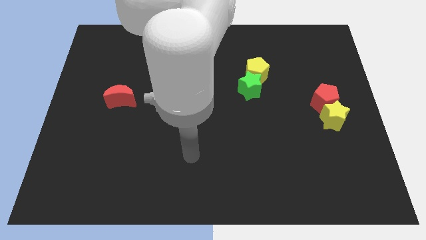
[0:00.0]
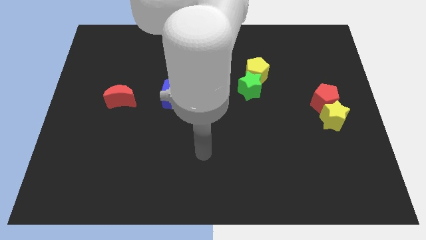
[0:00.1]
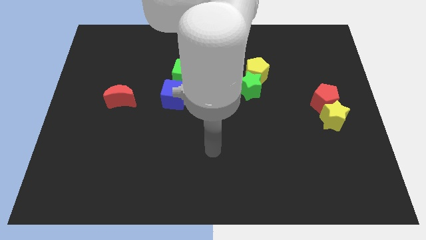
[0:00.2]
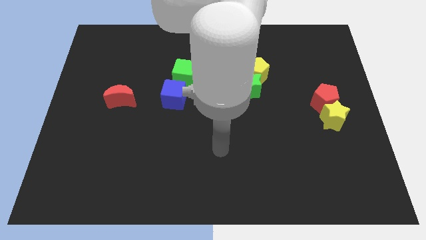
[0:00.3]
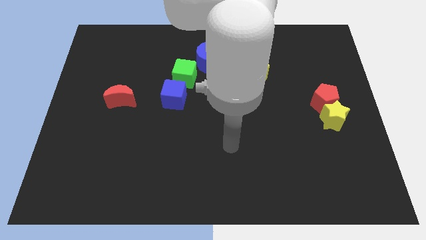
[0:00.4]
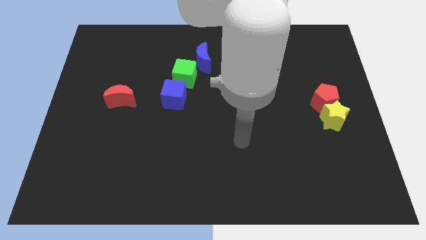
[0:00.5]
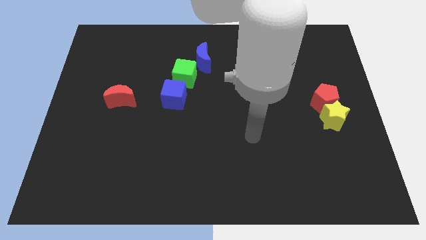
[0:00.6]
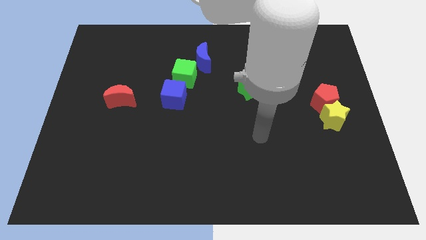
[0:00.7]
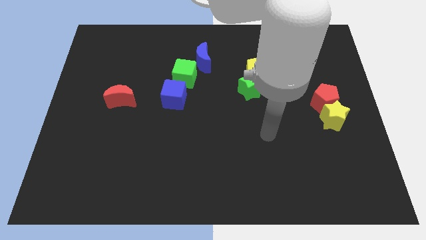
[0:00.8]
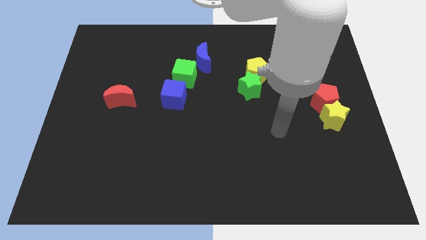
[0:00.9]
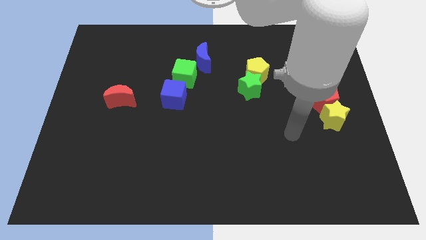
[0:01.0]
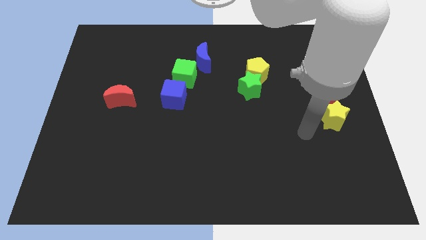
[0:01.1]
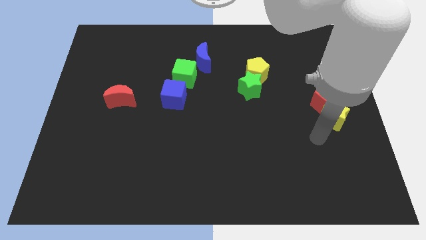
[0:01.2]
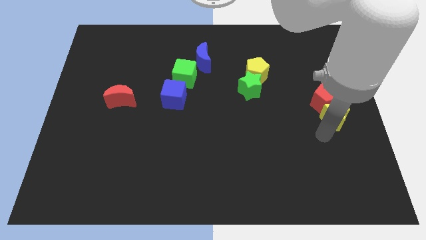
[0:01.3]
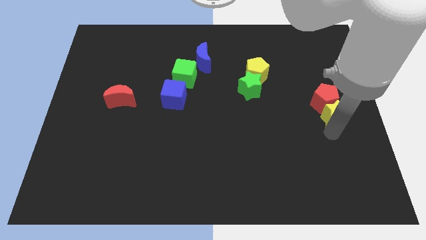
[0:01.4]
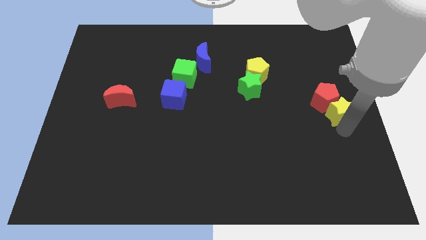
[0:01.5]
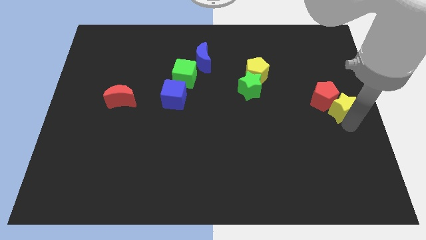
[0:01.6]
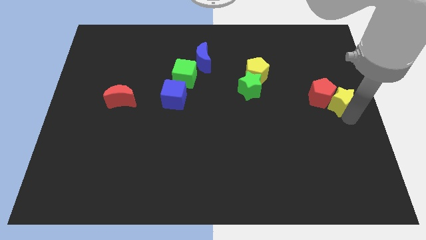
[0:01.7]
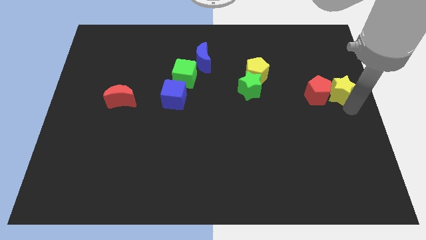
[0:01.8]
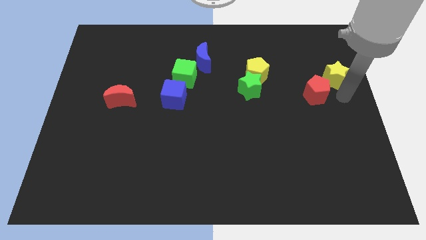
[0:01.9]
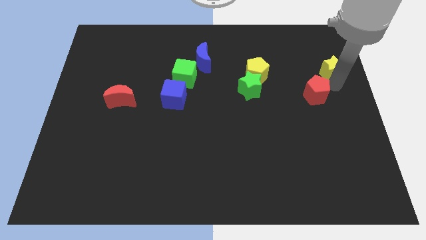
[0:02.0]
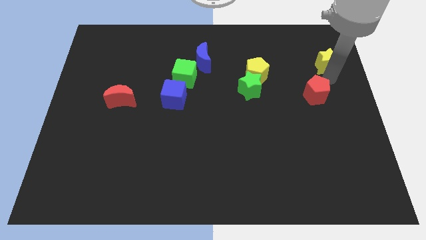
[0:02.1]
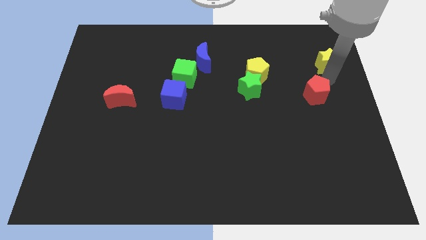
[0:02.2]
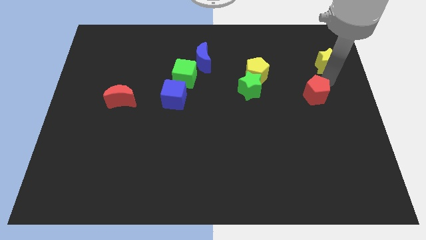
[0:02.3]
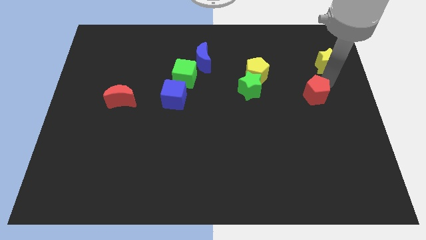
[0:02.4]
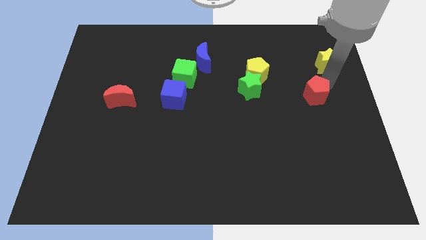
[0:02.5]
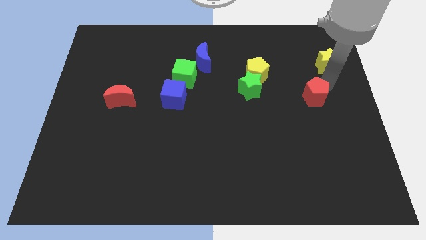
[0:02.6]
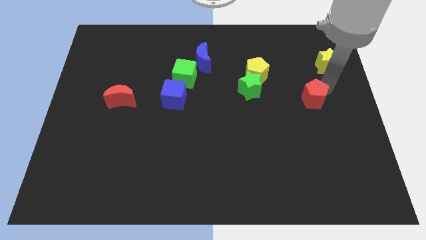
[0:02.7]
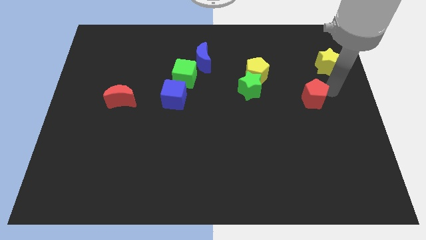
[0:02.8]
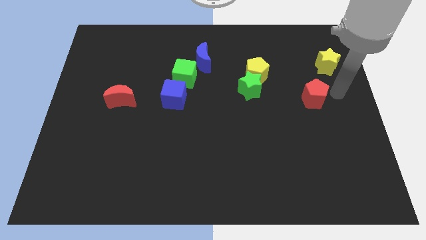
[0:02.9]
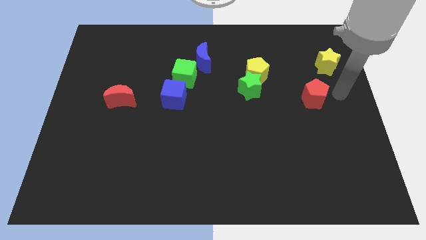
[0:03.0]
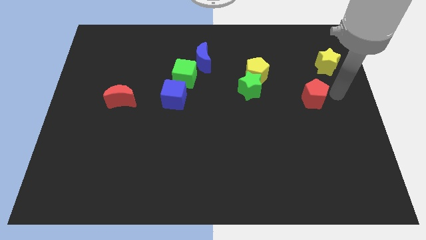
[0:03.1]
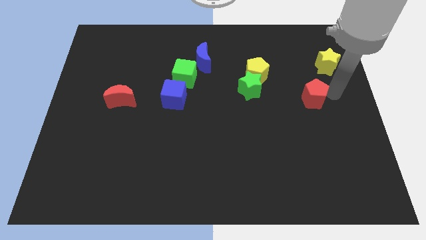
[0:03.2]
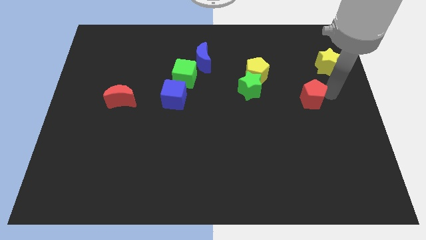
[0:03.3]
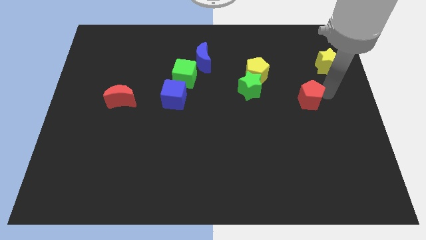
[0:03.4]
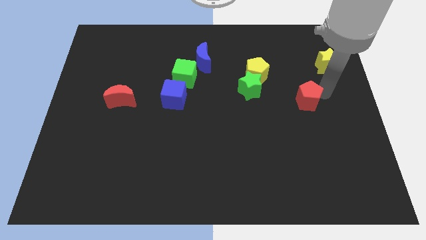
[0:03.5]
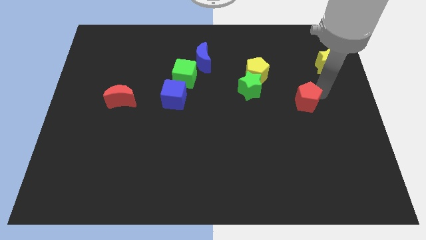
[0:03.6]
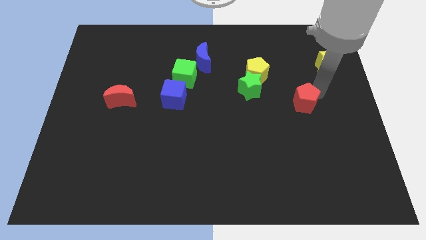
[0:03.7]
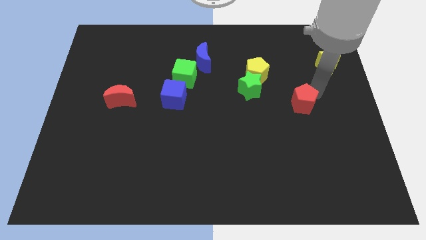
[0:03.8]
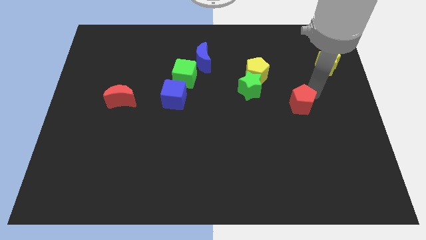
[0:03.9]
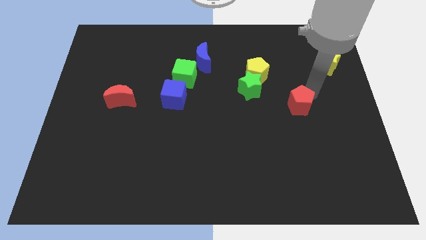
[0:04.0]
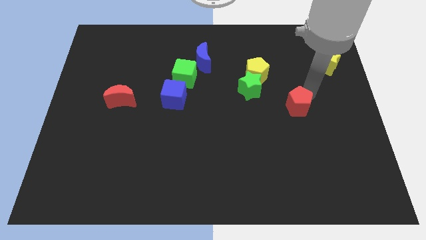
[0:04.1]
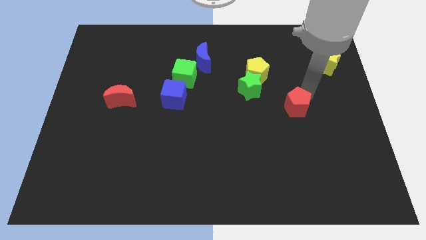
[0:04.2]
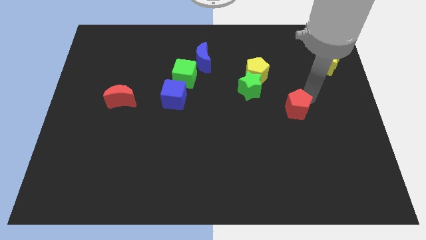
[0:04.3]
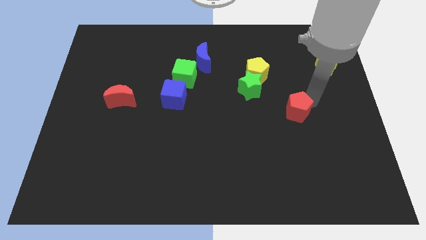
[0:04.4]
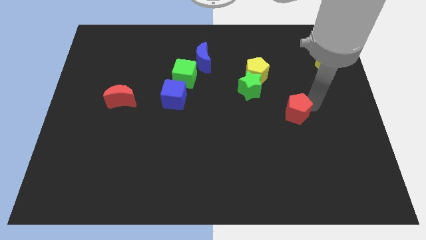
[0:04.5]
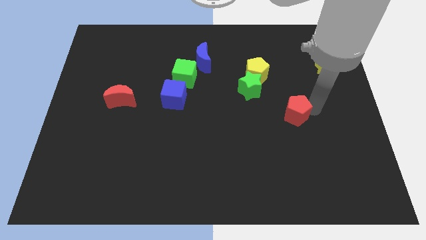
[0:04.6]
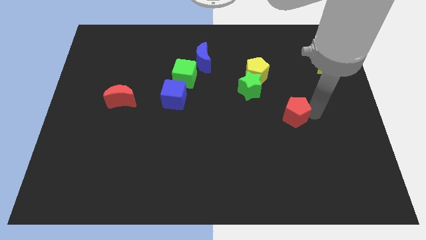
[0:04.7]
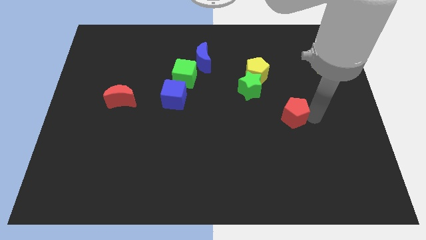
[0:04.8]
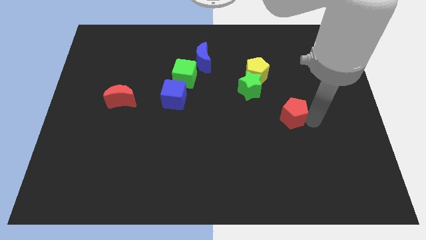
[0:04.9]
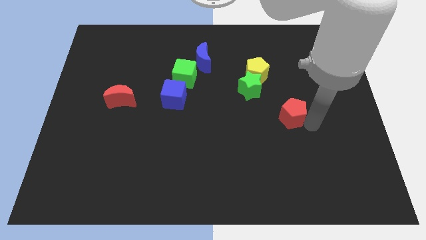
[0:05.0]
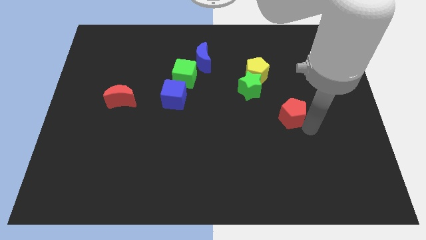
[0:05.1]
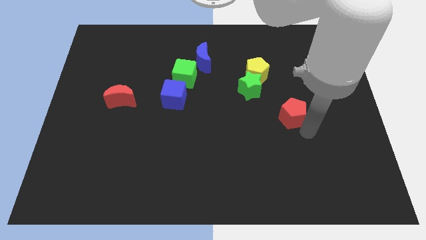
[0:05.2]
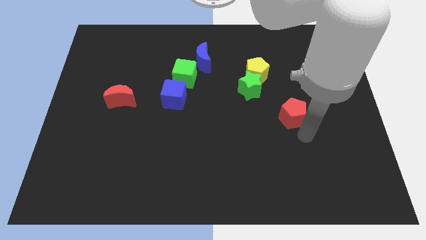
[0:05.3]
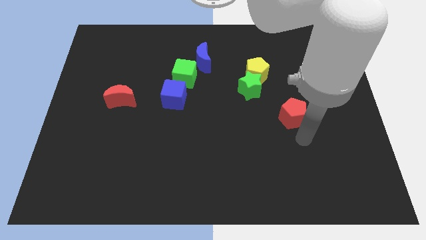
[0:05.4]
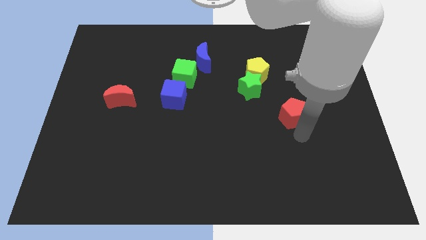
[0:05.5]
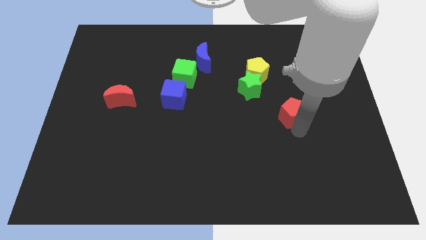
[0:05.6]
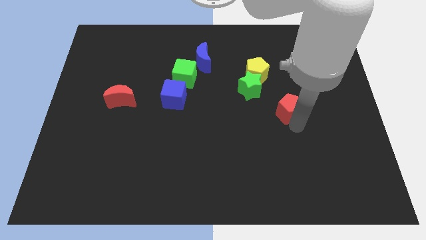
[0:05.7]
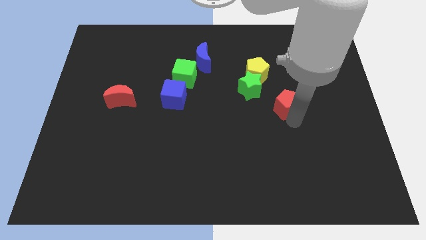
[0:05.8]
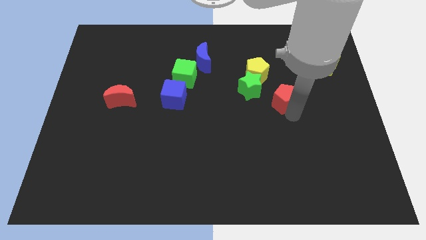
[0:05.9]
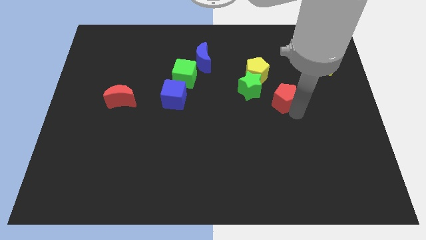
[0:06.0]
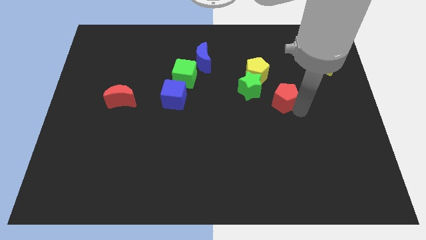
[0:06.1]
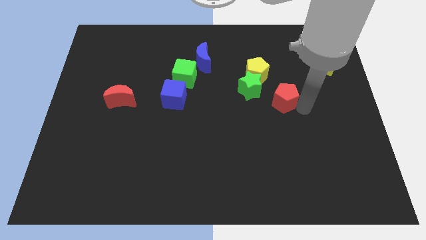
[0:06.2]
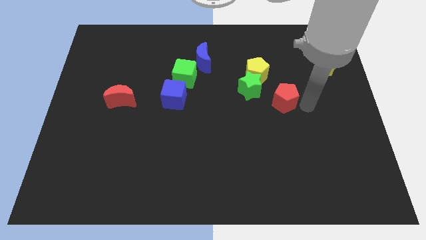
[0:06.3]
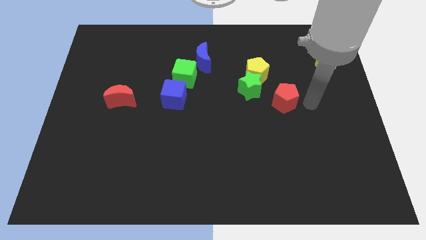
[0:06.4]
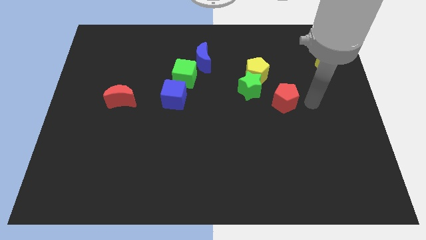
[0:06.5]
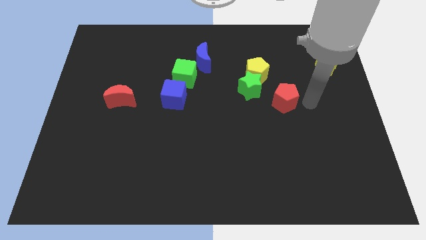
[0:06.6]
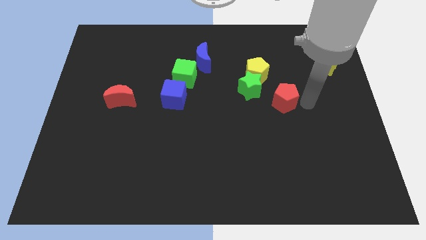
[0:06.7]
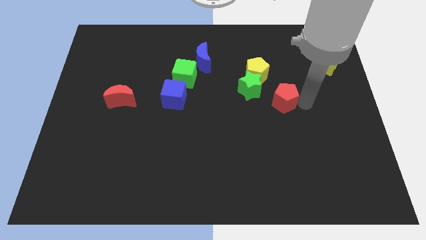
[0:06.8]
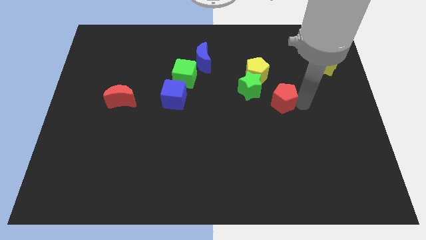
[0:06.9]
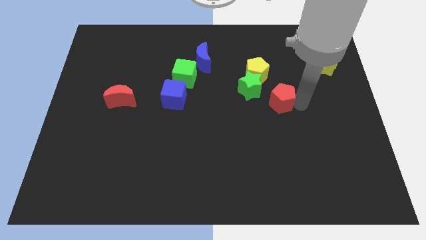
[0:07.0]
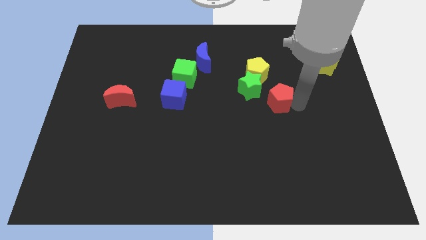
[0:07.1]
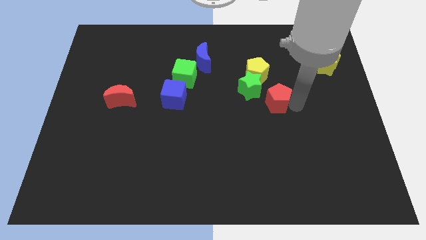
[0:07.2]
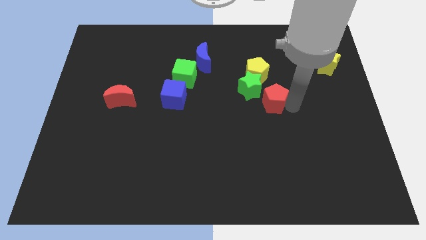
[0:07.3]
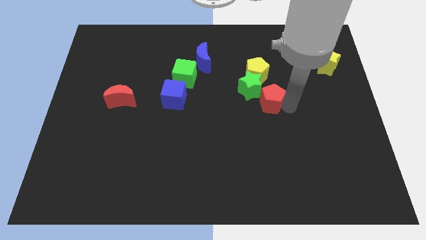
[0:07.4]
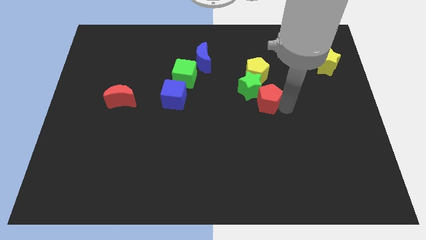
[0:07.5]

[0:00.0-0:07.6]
slide the red pentagon next to the green star
